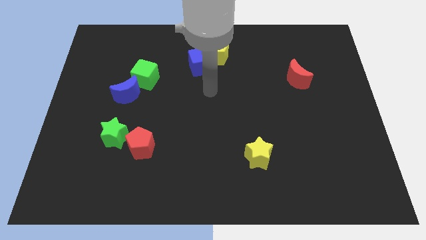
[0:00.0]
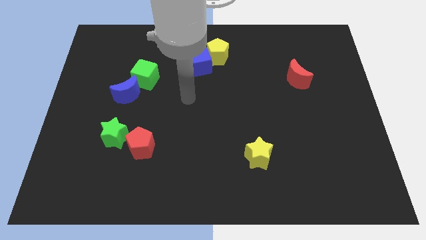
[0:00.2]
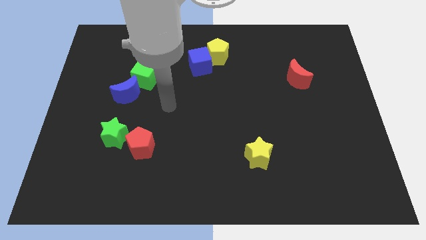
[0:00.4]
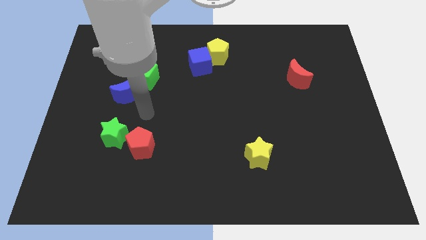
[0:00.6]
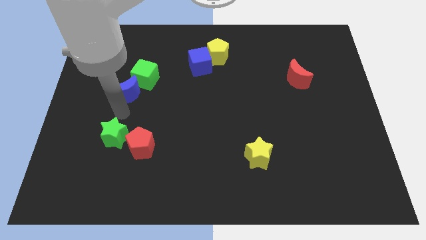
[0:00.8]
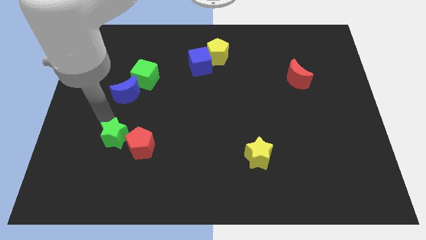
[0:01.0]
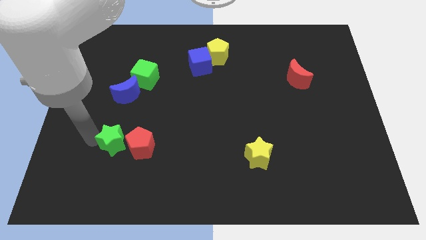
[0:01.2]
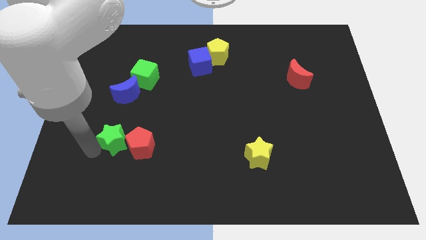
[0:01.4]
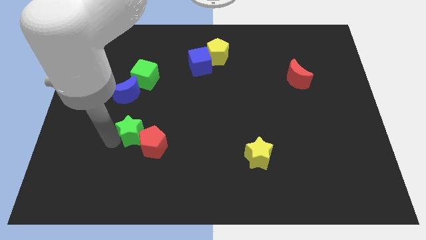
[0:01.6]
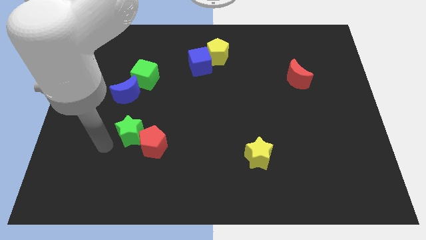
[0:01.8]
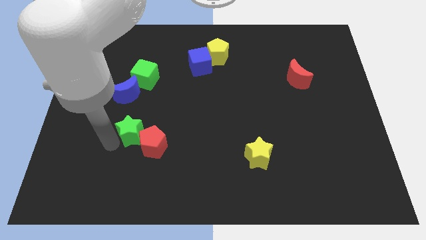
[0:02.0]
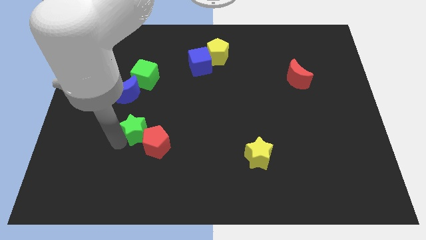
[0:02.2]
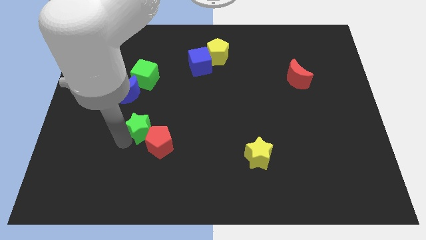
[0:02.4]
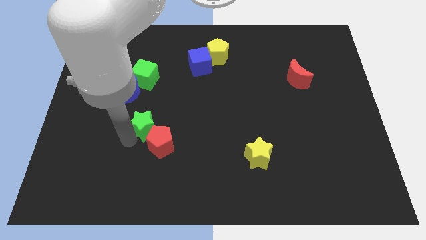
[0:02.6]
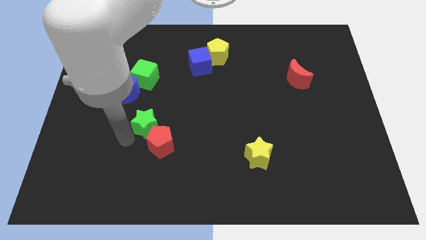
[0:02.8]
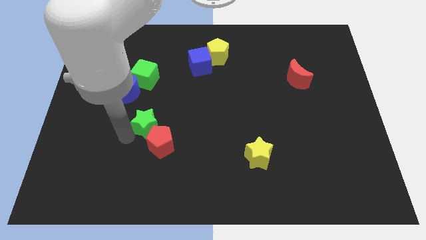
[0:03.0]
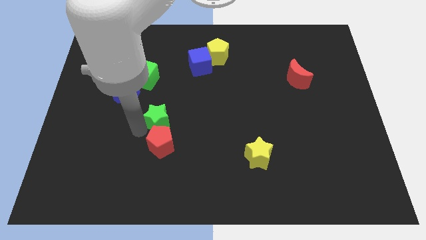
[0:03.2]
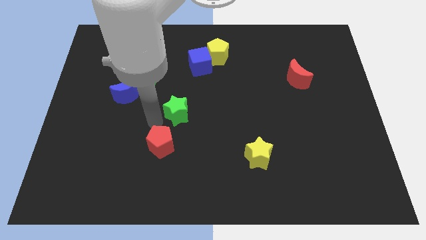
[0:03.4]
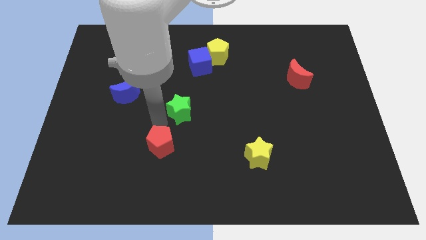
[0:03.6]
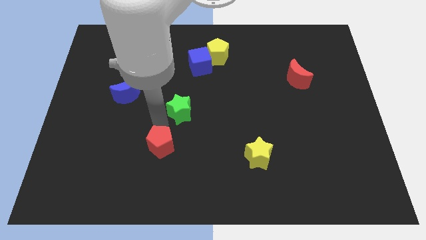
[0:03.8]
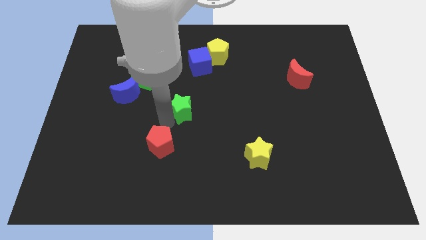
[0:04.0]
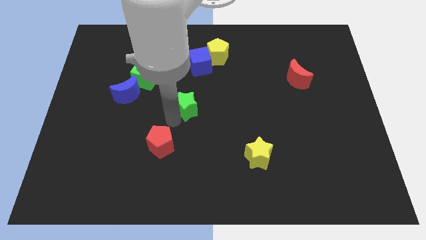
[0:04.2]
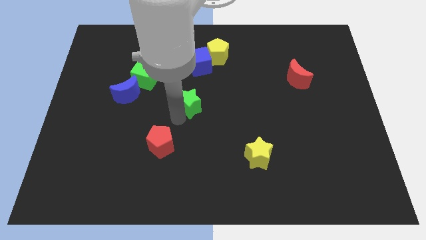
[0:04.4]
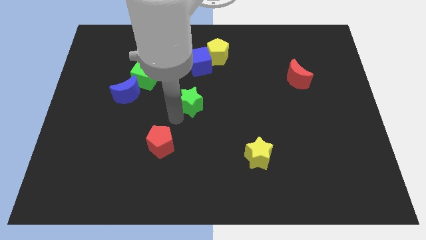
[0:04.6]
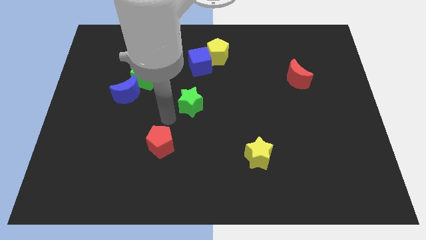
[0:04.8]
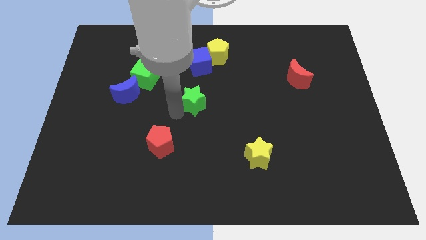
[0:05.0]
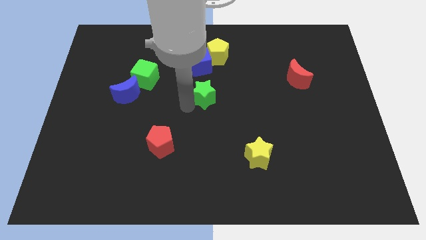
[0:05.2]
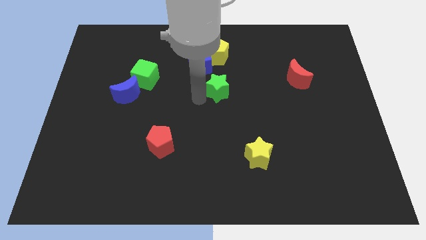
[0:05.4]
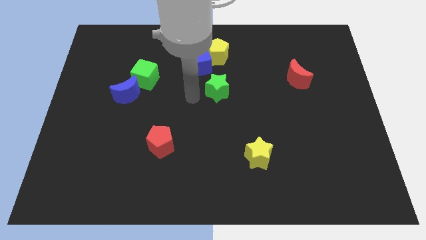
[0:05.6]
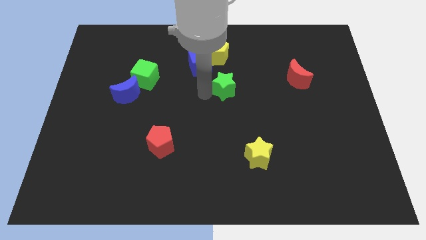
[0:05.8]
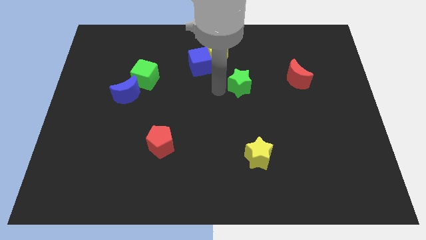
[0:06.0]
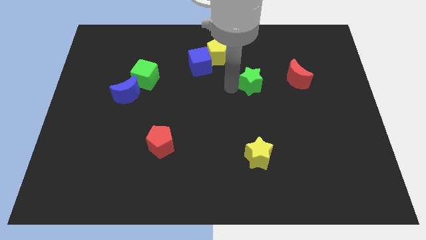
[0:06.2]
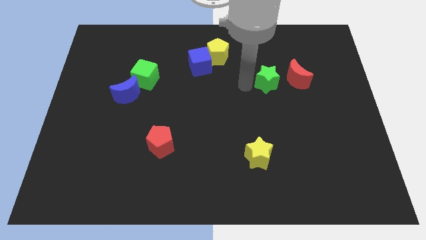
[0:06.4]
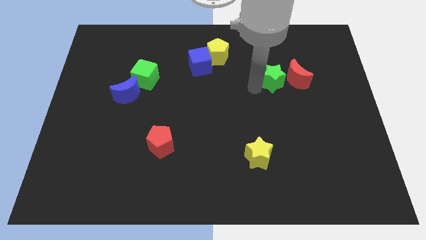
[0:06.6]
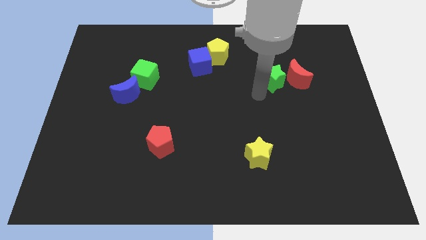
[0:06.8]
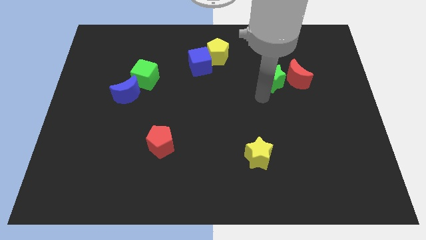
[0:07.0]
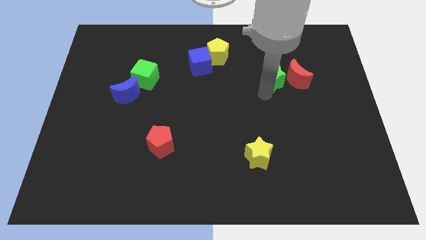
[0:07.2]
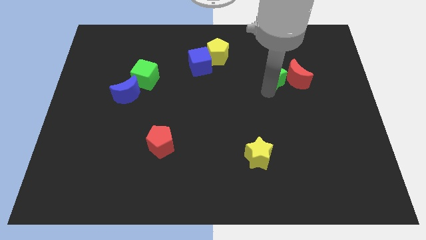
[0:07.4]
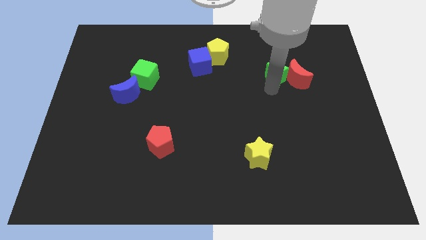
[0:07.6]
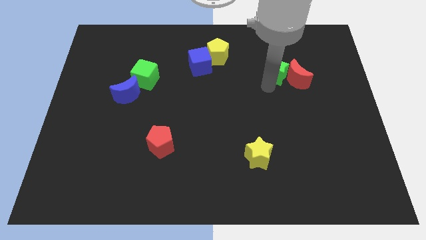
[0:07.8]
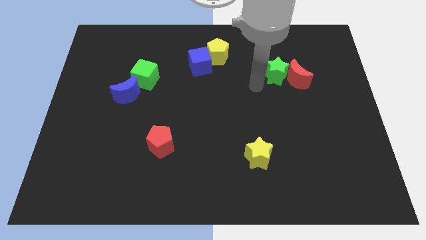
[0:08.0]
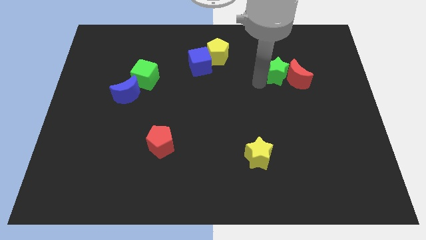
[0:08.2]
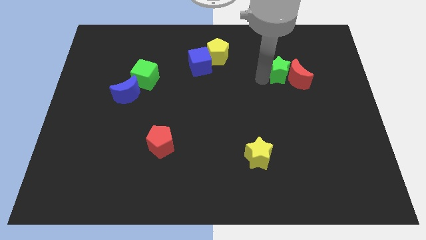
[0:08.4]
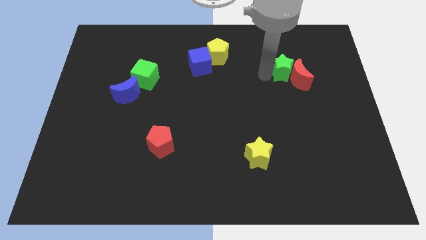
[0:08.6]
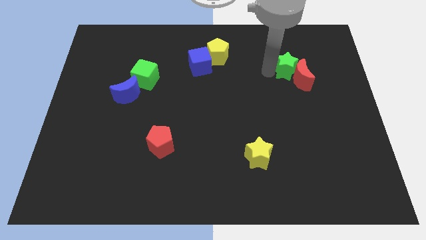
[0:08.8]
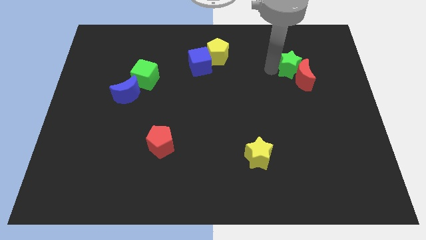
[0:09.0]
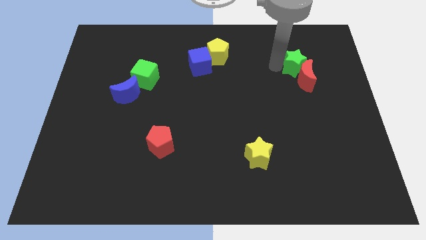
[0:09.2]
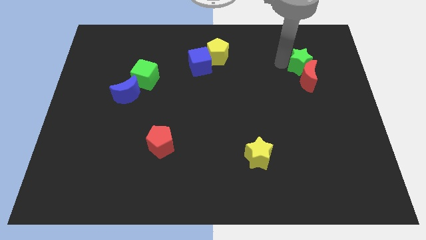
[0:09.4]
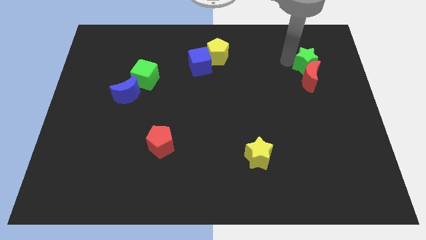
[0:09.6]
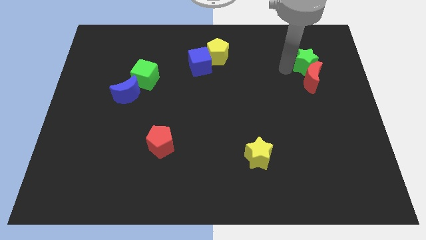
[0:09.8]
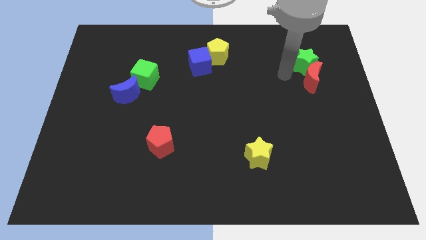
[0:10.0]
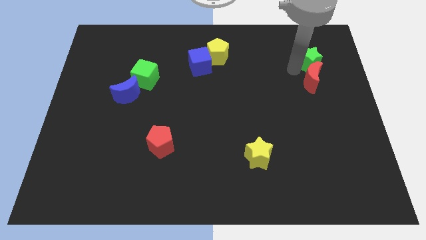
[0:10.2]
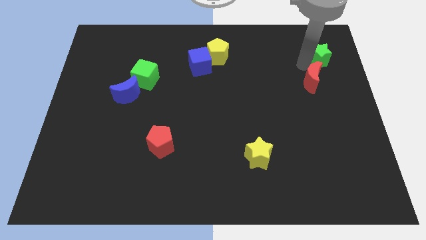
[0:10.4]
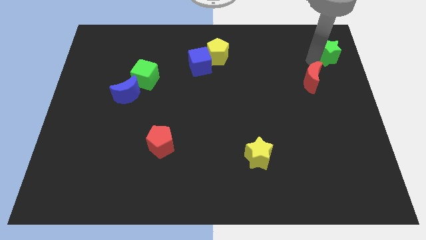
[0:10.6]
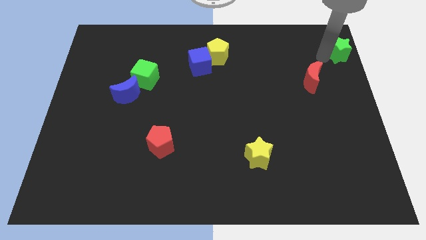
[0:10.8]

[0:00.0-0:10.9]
put the green star to the upper right corner

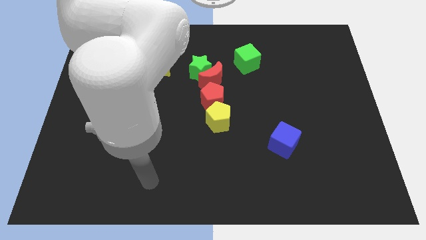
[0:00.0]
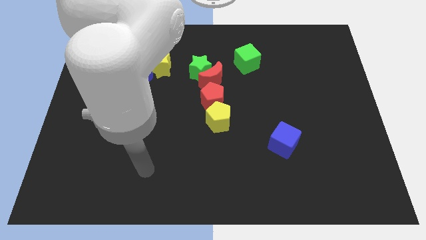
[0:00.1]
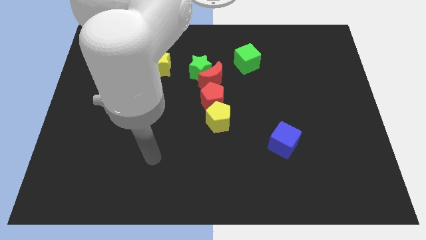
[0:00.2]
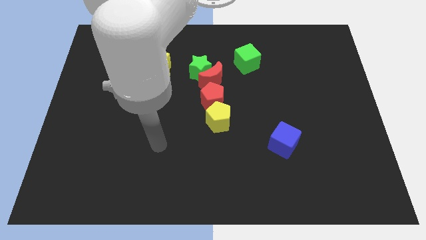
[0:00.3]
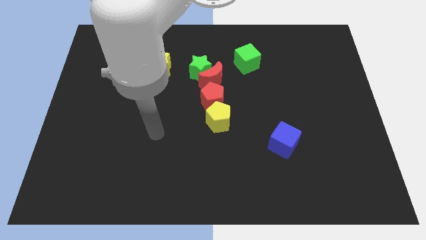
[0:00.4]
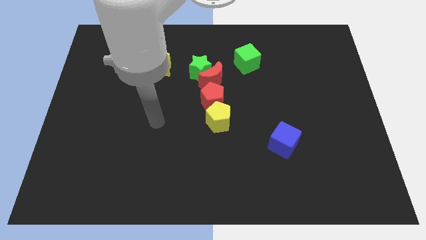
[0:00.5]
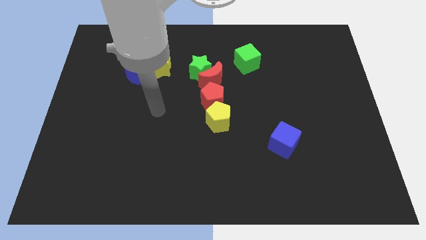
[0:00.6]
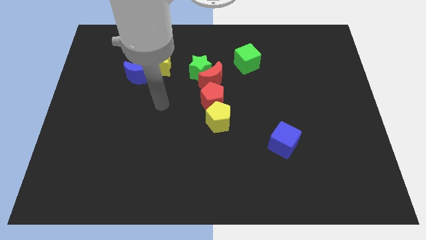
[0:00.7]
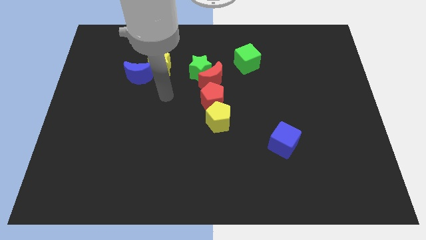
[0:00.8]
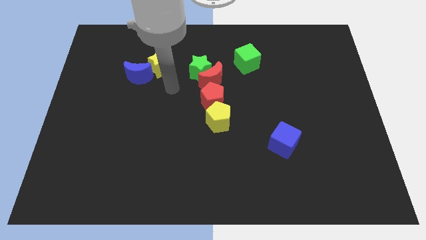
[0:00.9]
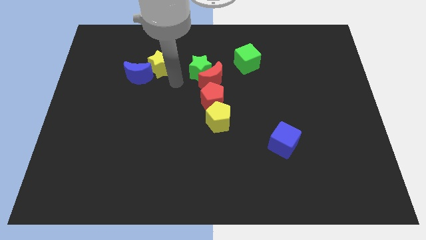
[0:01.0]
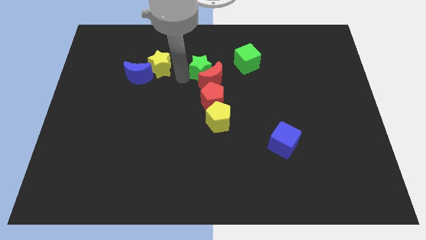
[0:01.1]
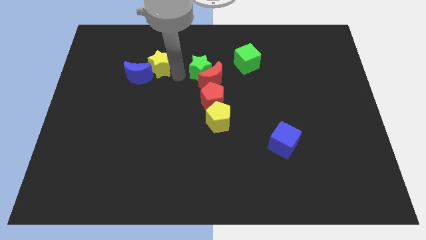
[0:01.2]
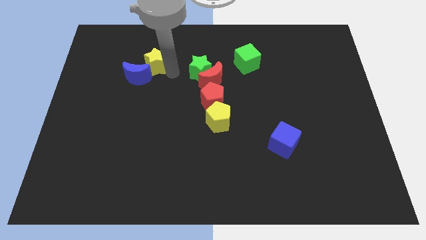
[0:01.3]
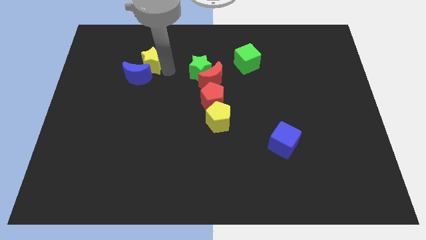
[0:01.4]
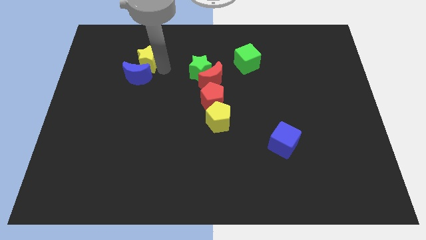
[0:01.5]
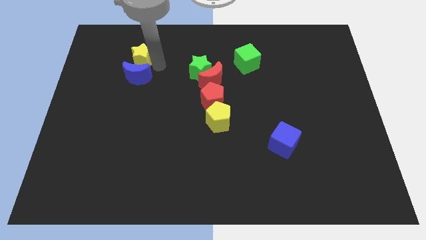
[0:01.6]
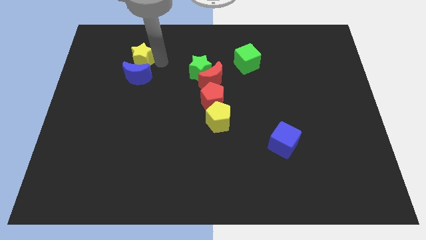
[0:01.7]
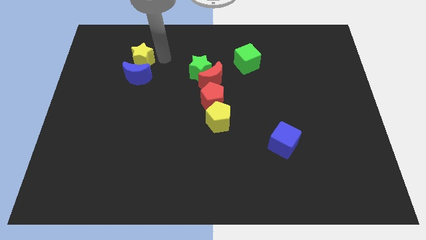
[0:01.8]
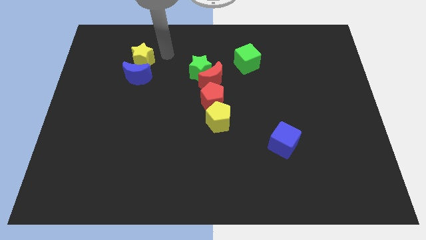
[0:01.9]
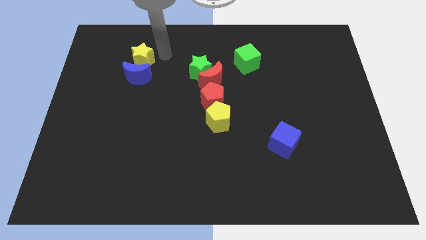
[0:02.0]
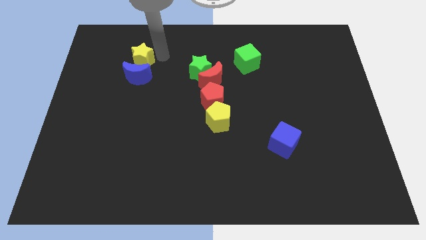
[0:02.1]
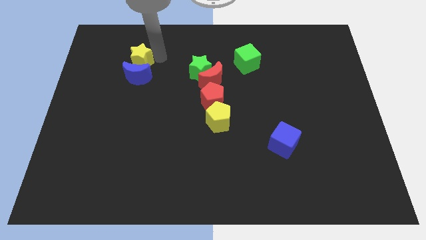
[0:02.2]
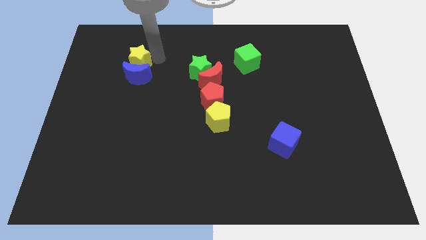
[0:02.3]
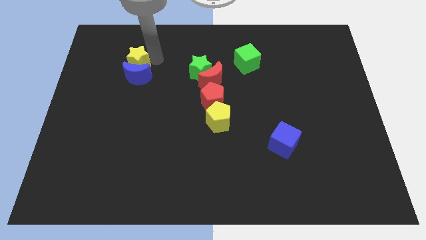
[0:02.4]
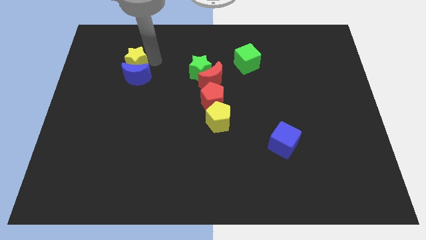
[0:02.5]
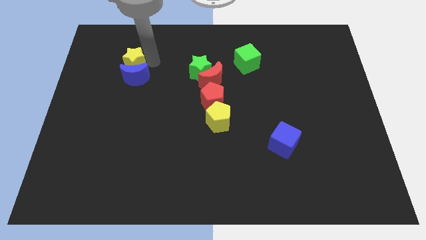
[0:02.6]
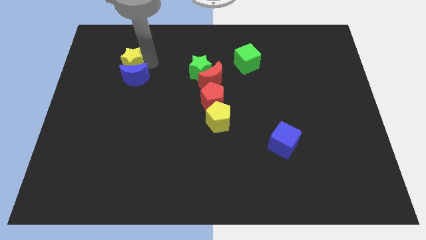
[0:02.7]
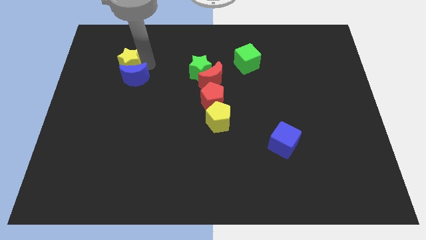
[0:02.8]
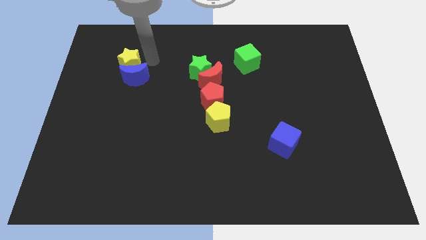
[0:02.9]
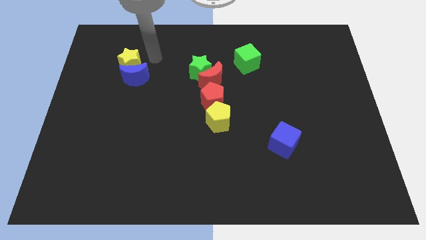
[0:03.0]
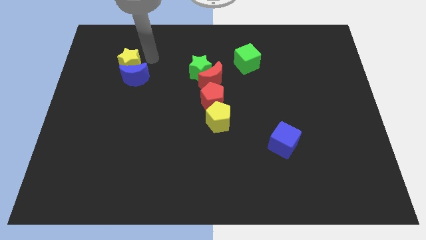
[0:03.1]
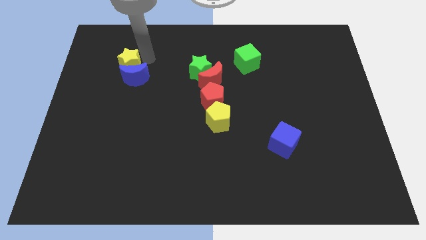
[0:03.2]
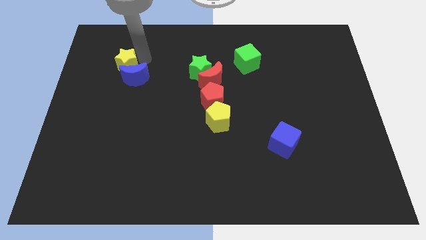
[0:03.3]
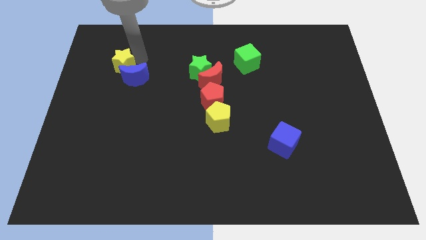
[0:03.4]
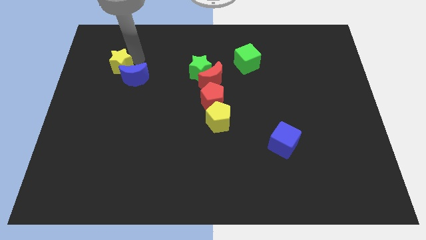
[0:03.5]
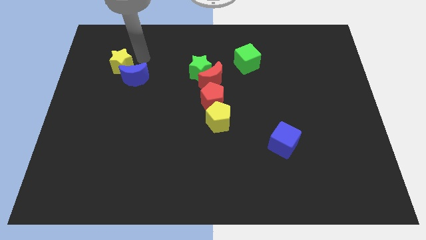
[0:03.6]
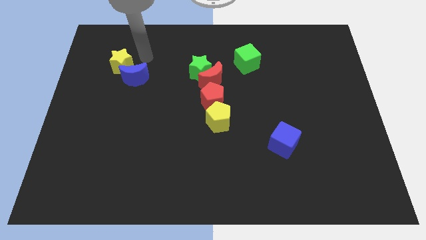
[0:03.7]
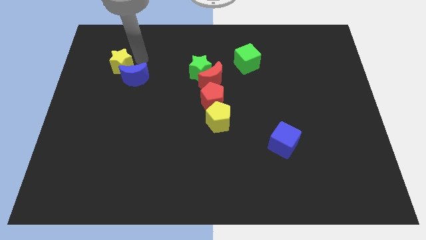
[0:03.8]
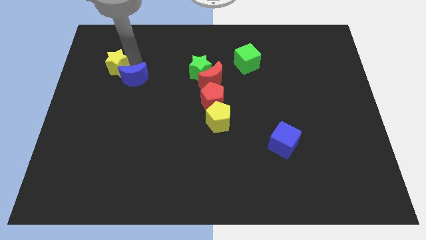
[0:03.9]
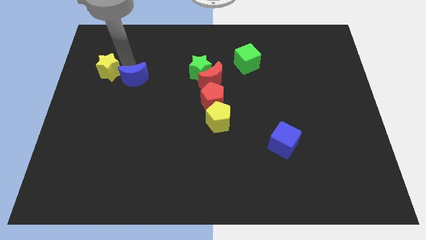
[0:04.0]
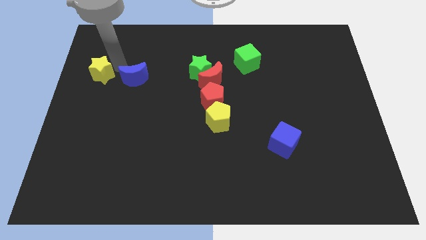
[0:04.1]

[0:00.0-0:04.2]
put the yellow star to the center left
